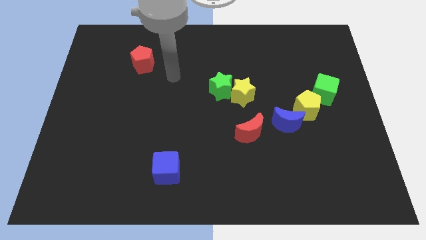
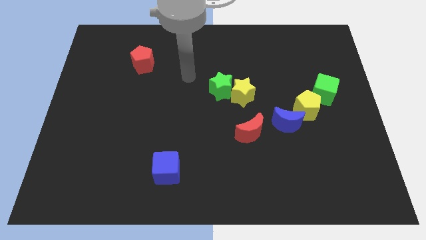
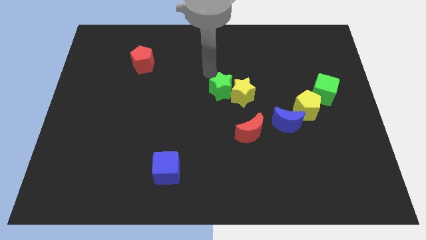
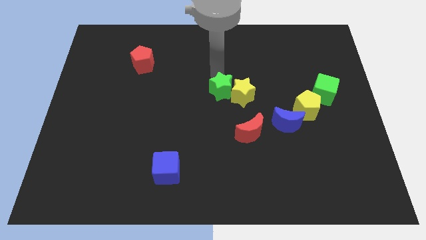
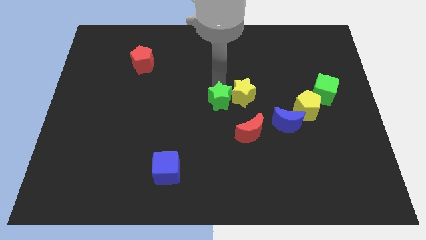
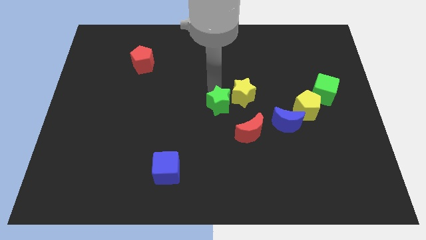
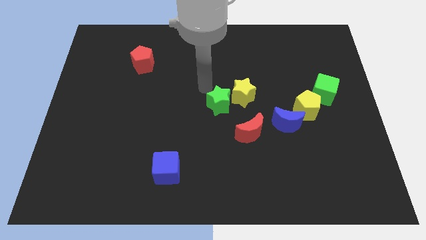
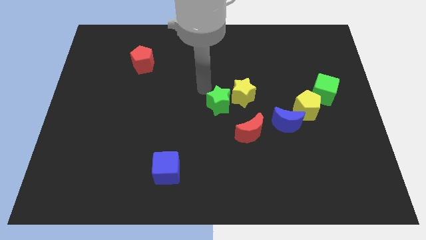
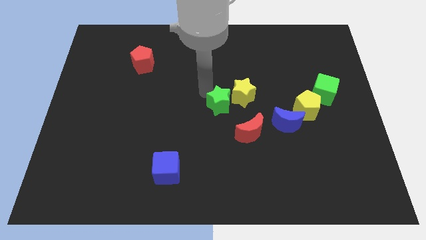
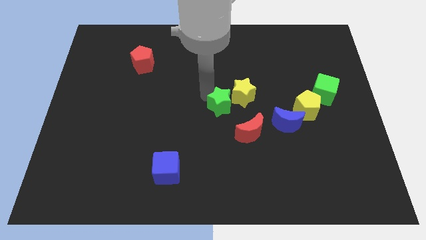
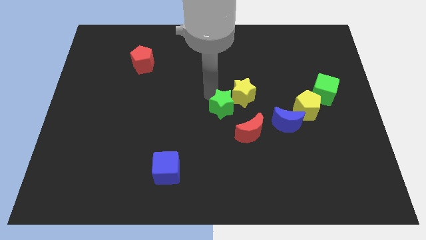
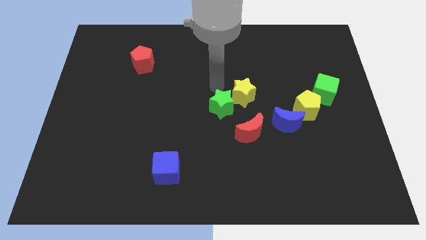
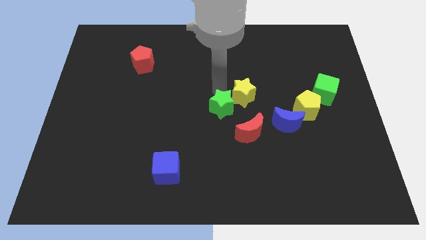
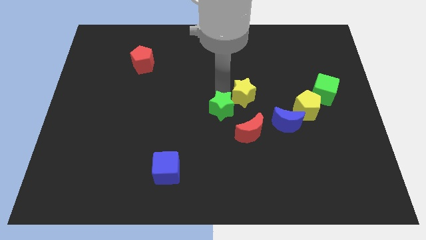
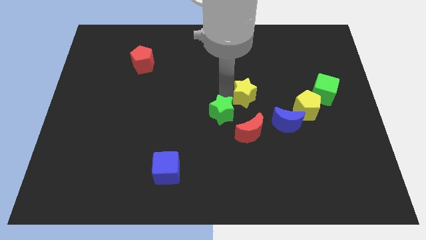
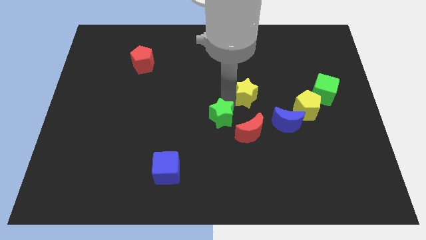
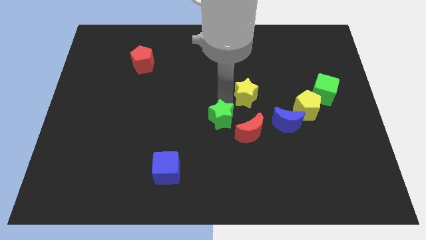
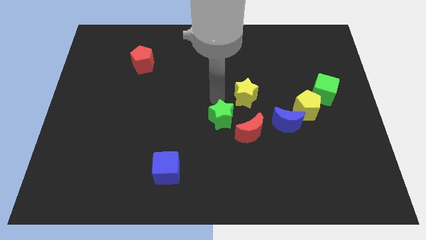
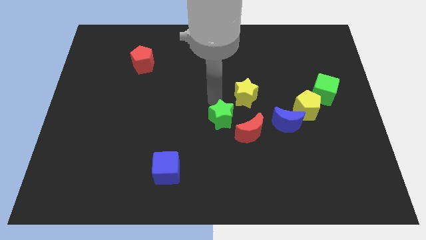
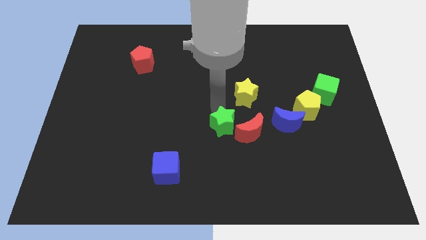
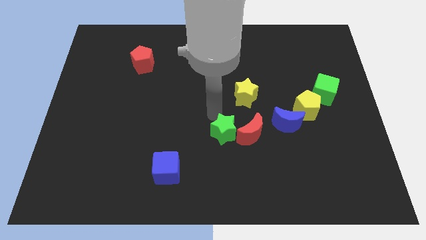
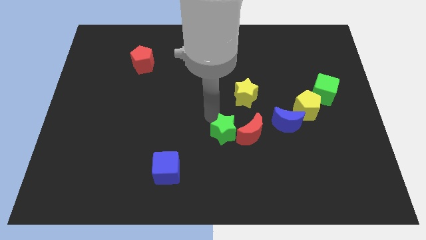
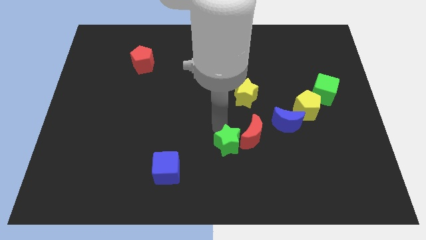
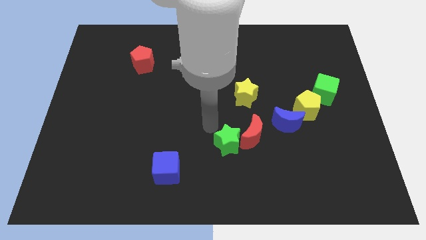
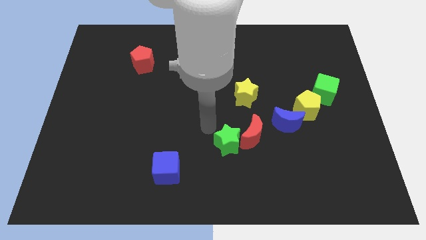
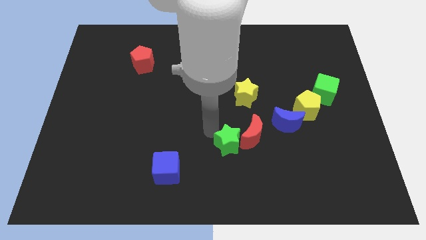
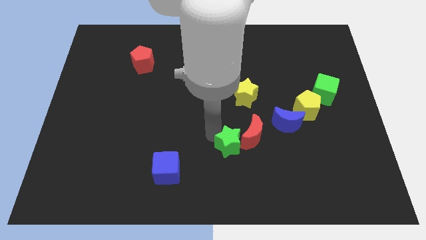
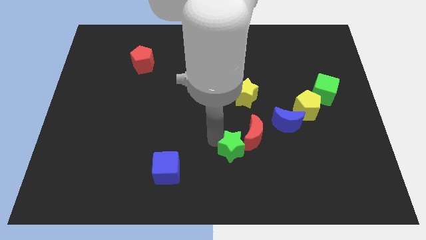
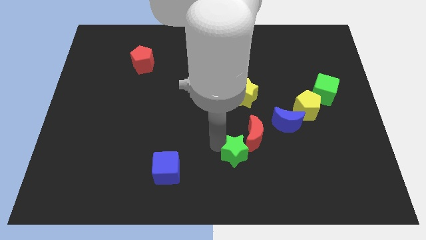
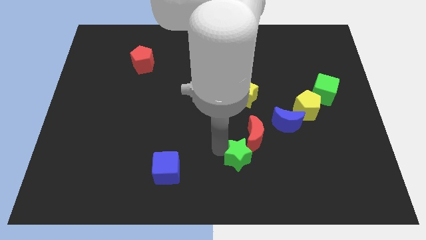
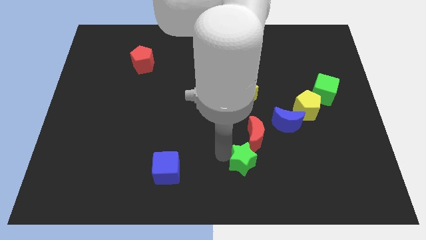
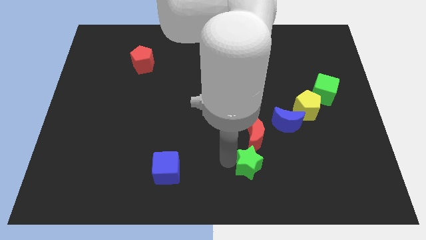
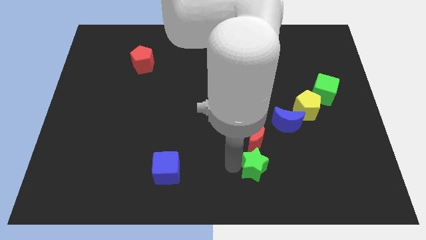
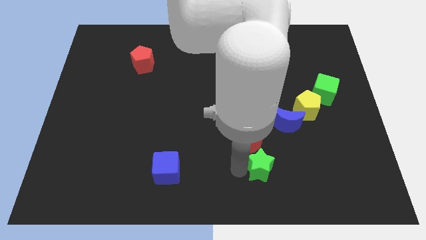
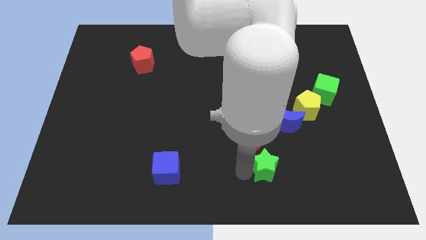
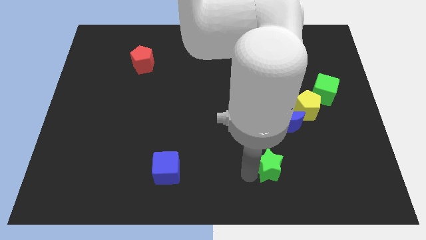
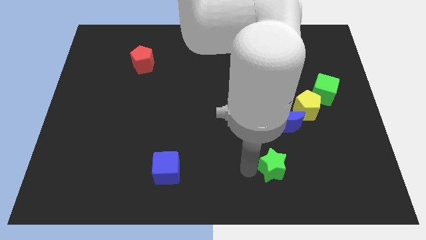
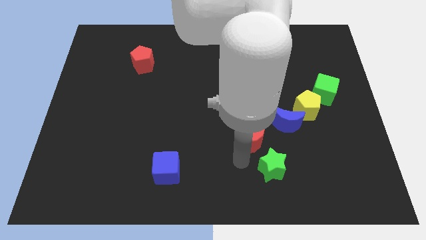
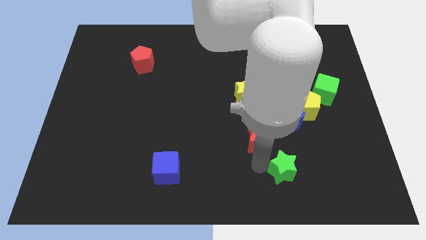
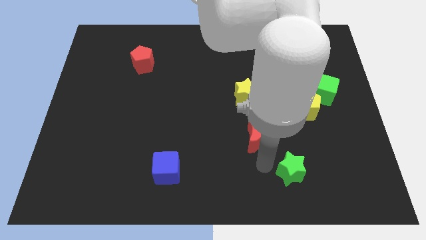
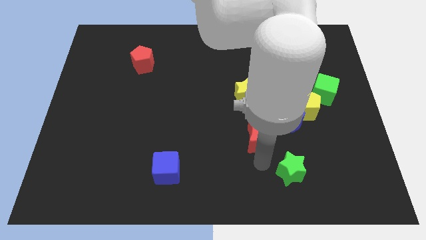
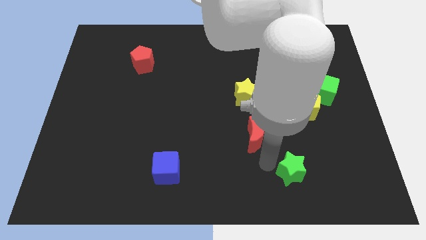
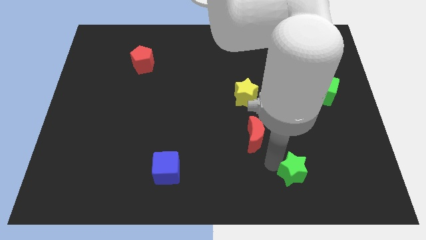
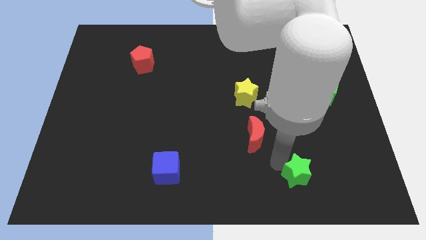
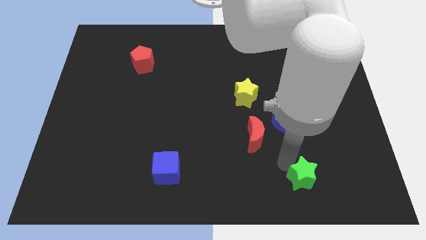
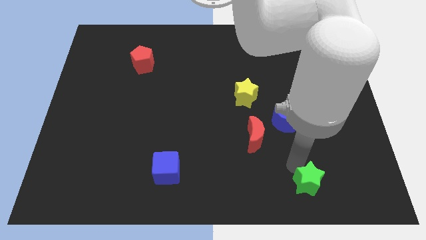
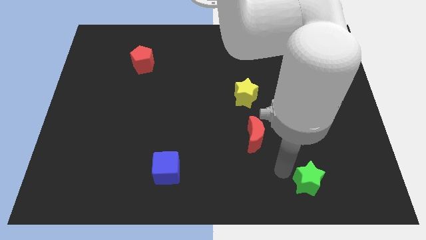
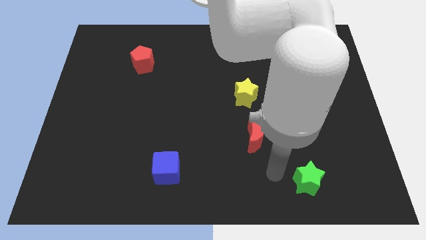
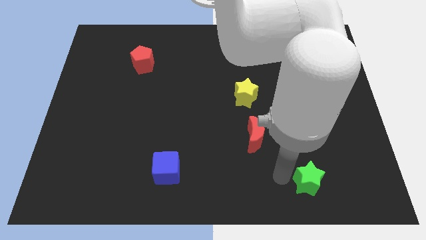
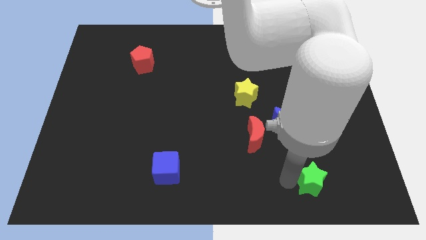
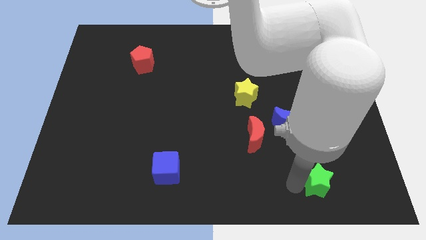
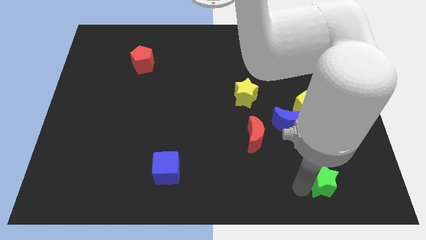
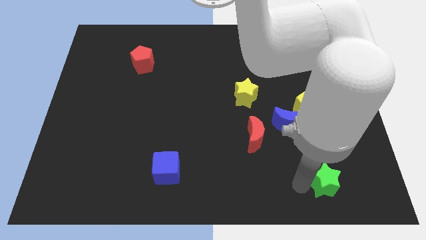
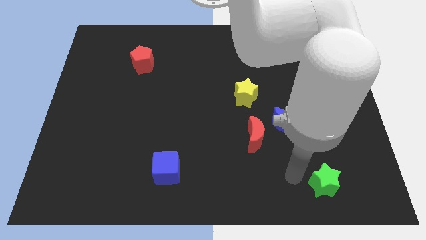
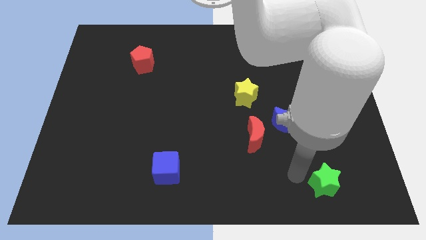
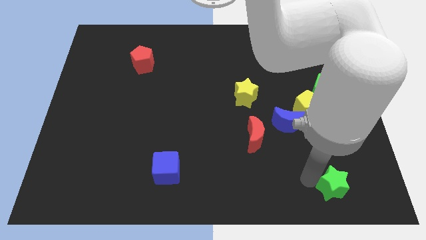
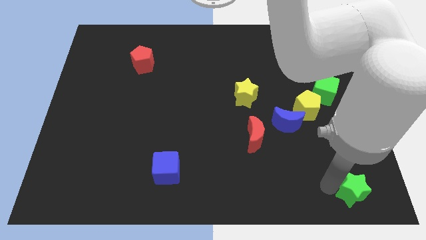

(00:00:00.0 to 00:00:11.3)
slide the green star to the bottom right
